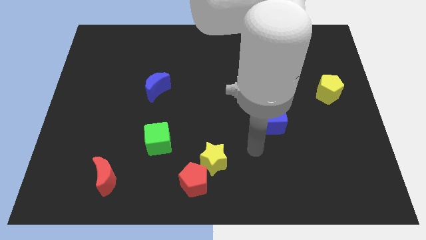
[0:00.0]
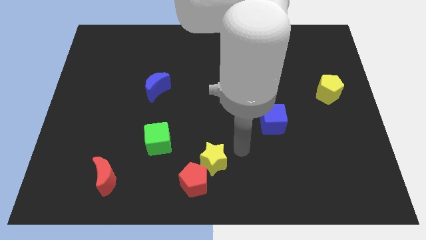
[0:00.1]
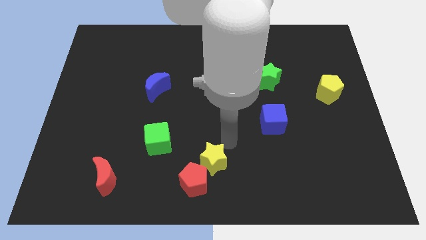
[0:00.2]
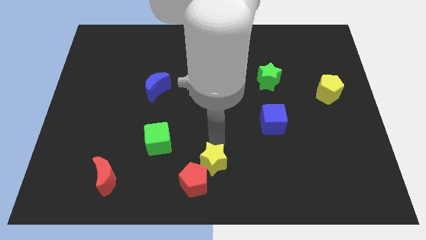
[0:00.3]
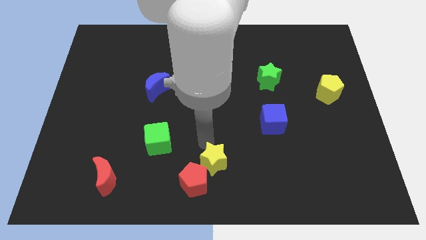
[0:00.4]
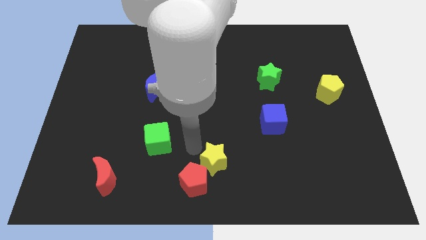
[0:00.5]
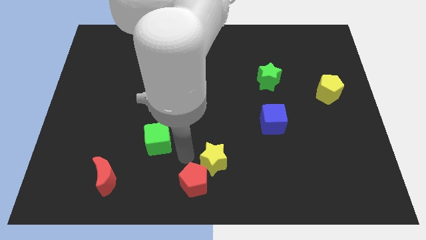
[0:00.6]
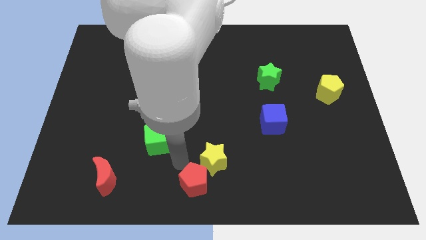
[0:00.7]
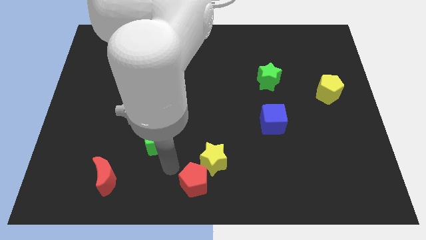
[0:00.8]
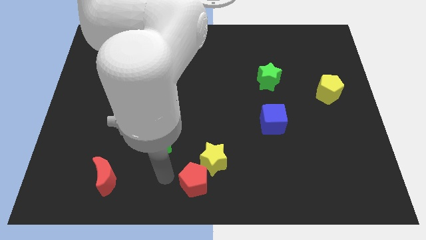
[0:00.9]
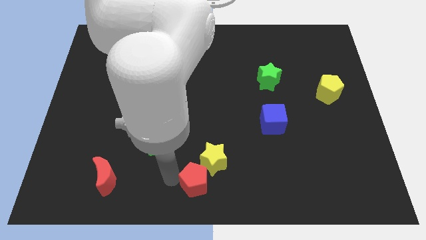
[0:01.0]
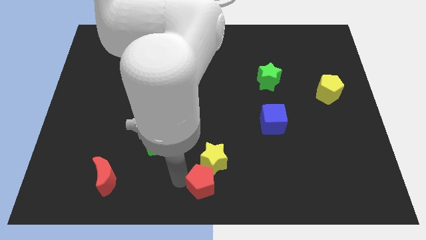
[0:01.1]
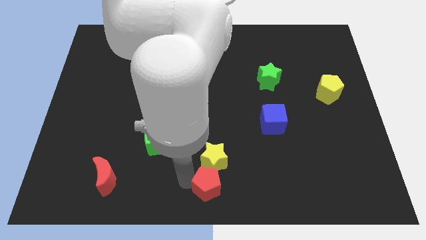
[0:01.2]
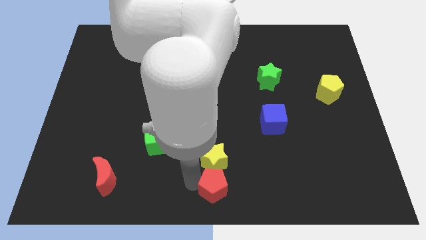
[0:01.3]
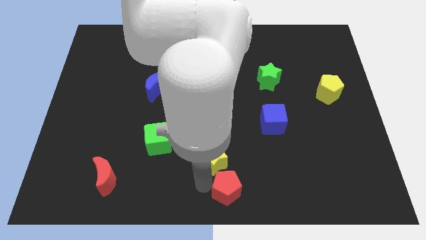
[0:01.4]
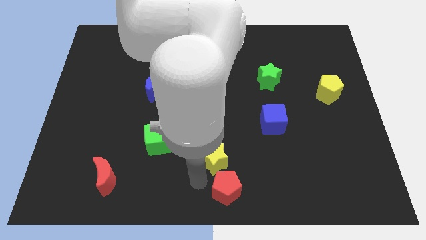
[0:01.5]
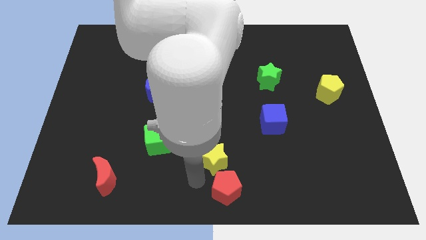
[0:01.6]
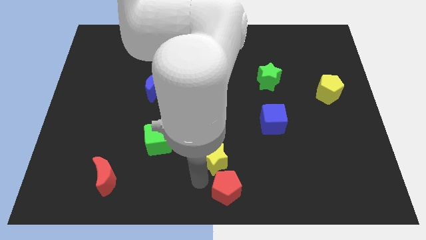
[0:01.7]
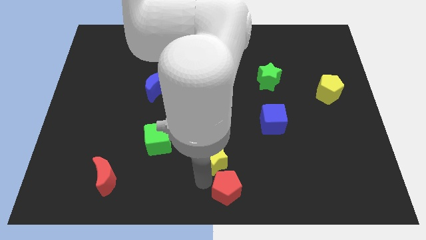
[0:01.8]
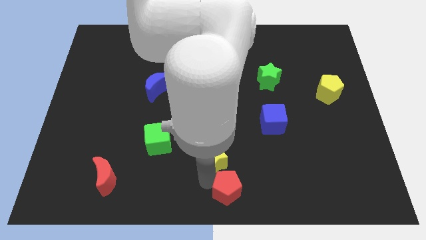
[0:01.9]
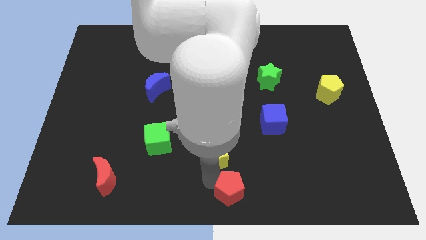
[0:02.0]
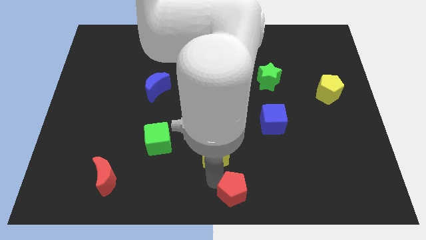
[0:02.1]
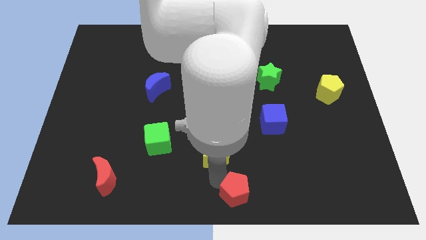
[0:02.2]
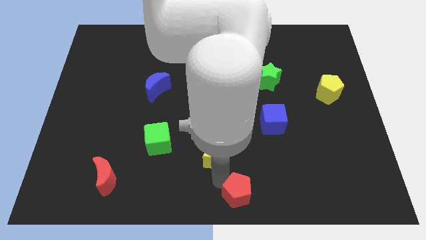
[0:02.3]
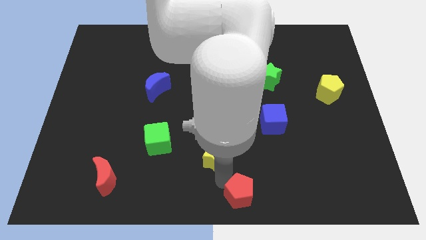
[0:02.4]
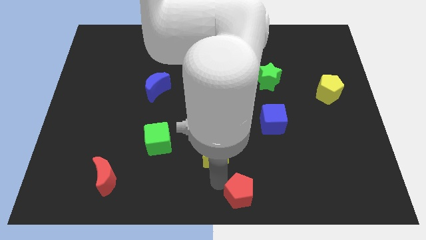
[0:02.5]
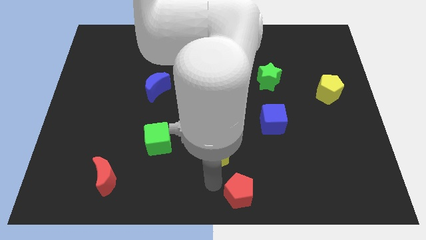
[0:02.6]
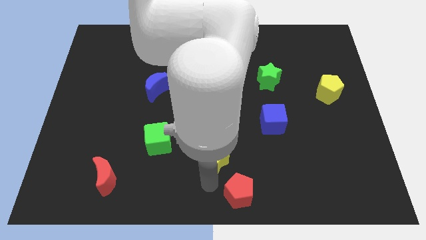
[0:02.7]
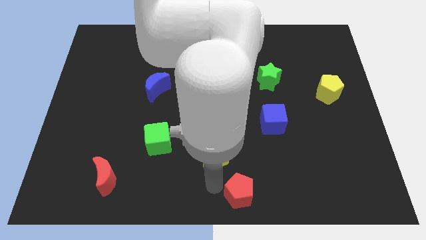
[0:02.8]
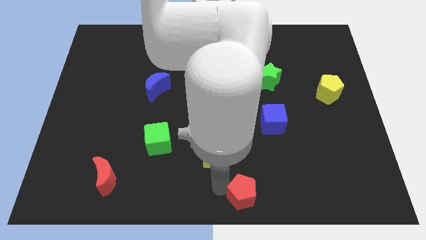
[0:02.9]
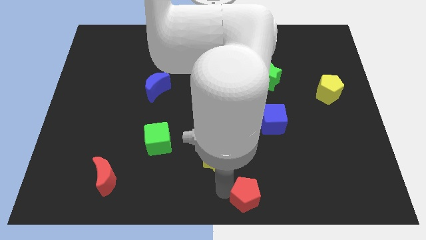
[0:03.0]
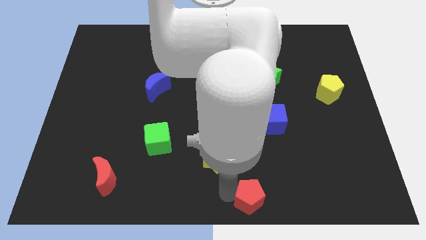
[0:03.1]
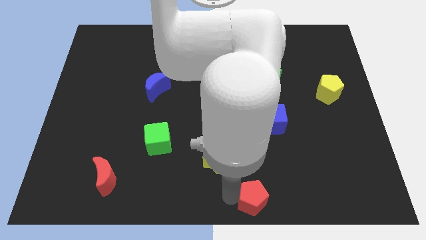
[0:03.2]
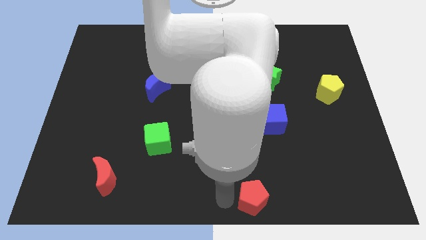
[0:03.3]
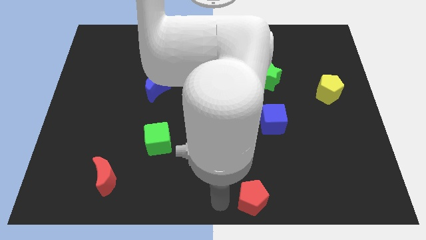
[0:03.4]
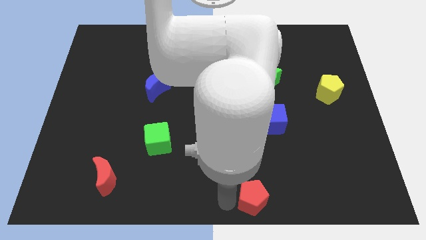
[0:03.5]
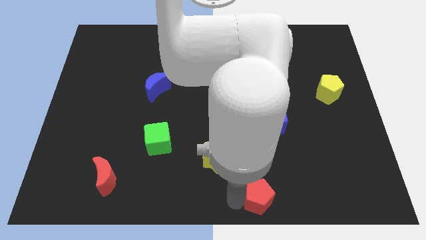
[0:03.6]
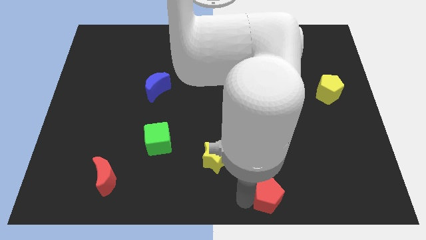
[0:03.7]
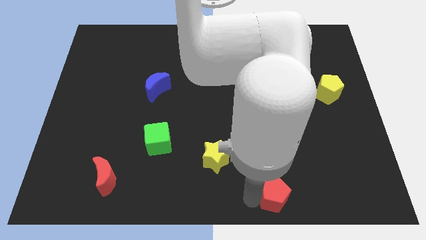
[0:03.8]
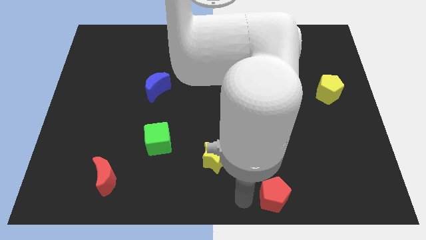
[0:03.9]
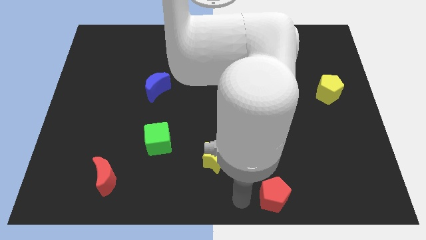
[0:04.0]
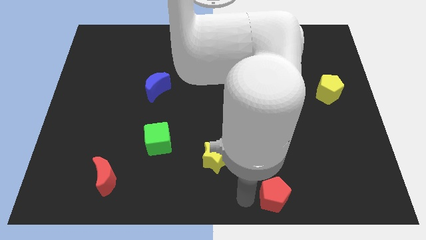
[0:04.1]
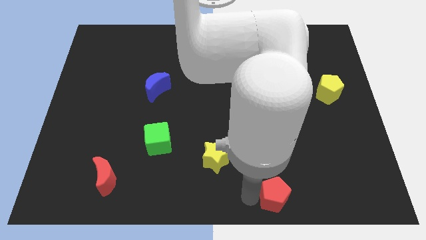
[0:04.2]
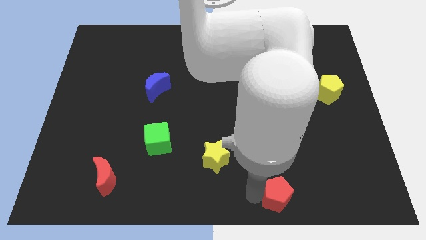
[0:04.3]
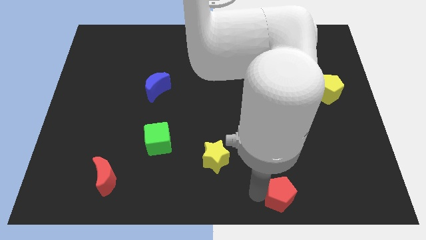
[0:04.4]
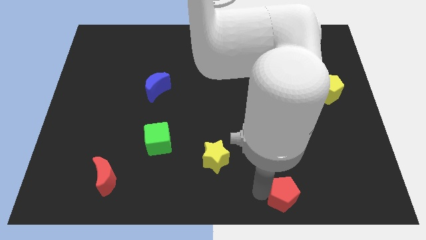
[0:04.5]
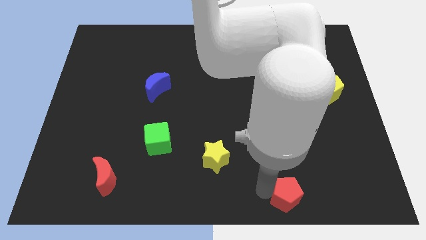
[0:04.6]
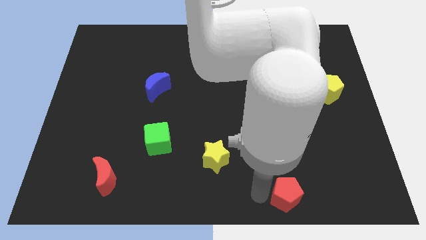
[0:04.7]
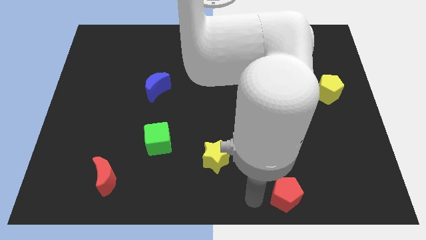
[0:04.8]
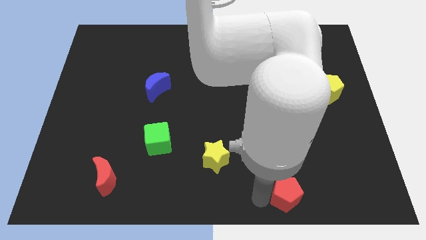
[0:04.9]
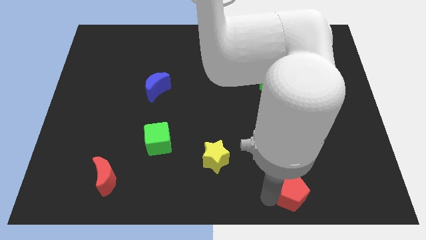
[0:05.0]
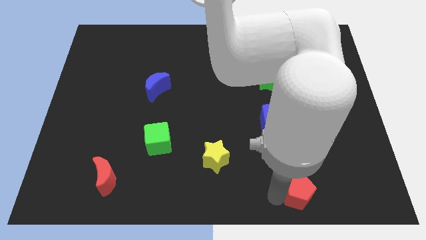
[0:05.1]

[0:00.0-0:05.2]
slide the red pentagon to the right

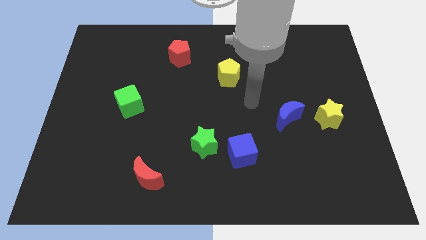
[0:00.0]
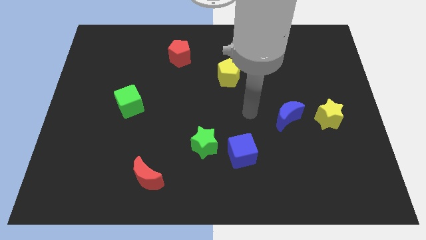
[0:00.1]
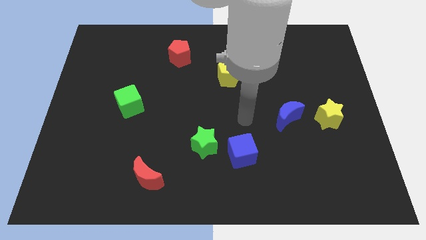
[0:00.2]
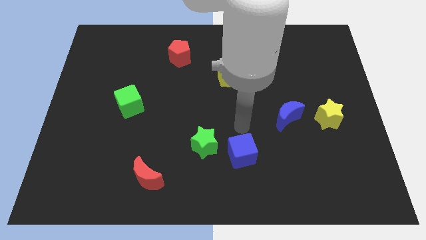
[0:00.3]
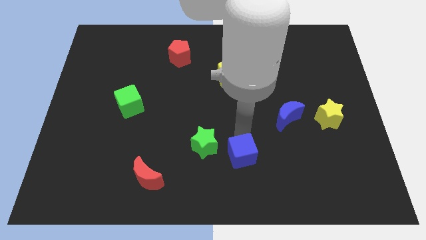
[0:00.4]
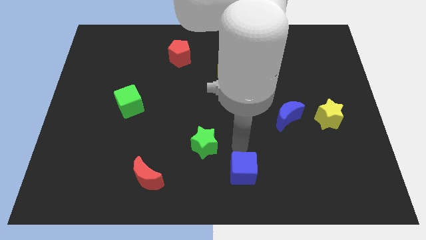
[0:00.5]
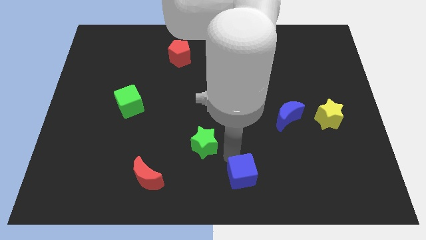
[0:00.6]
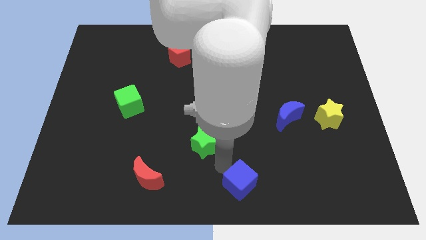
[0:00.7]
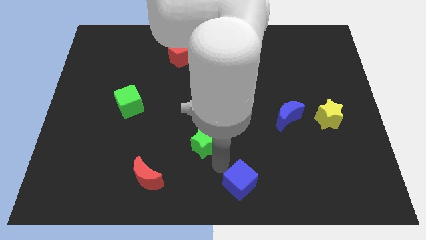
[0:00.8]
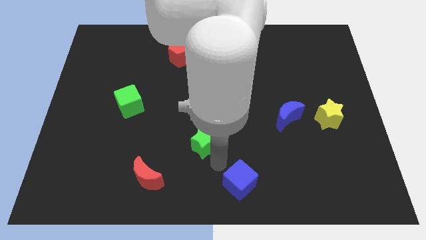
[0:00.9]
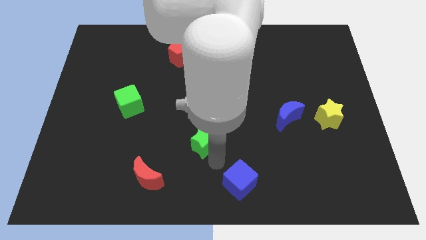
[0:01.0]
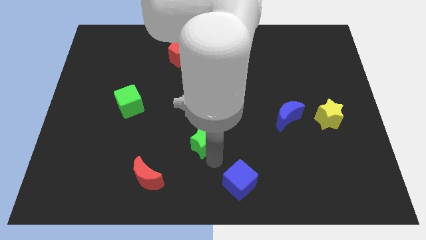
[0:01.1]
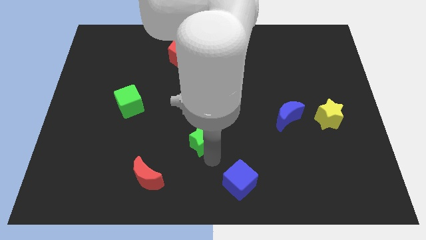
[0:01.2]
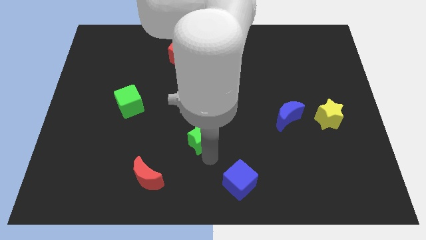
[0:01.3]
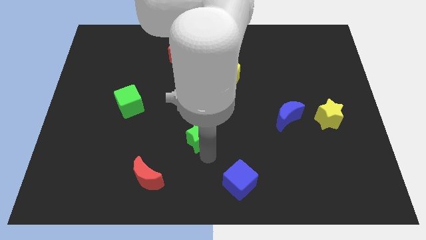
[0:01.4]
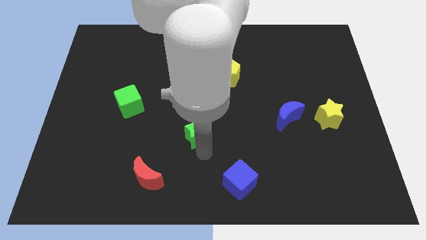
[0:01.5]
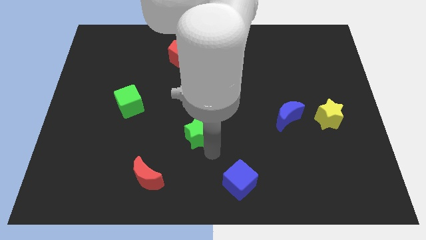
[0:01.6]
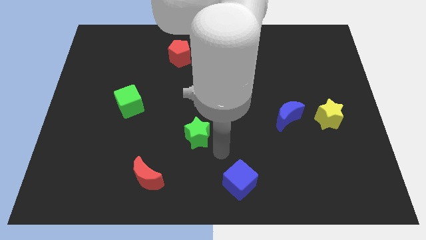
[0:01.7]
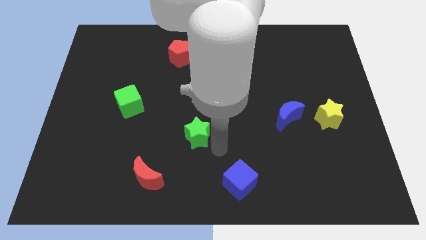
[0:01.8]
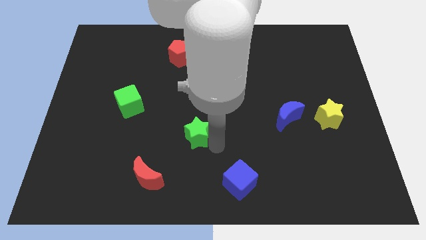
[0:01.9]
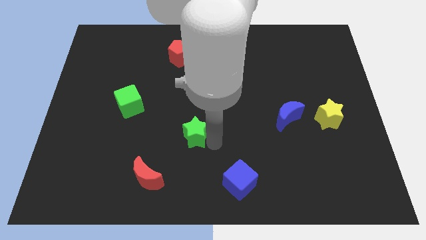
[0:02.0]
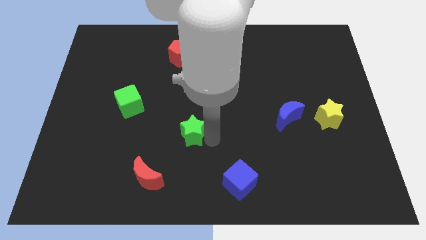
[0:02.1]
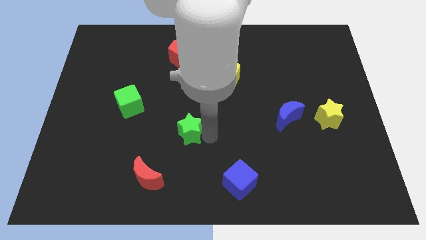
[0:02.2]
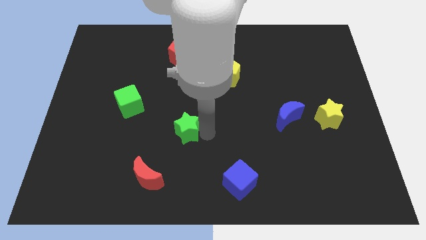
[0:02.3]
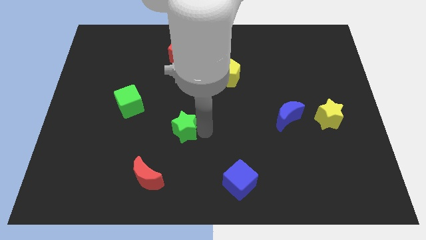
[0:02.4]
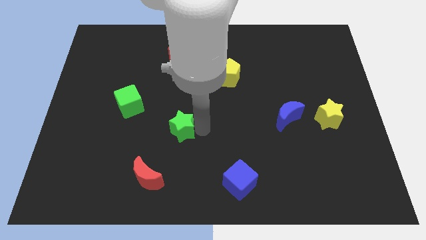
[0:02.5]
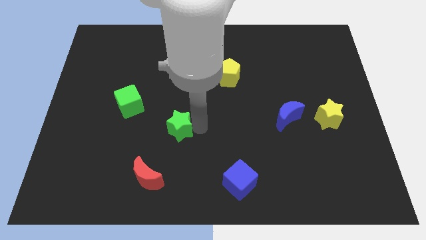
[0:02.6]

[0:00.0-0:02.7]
move the green star slightly diagonally up and left

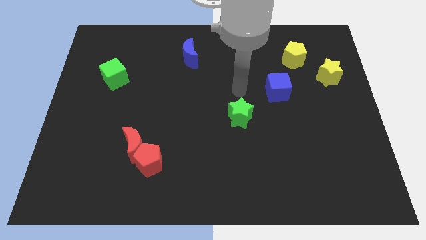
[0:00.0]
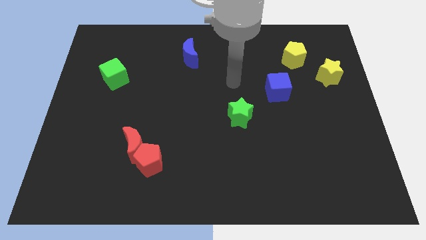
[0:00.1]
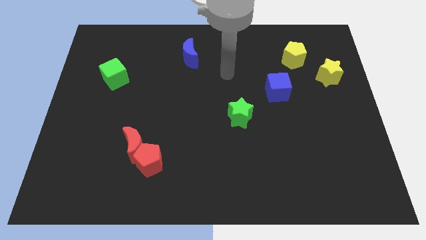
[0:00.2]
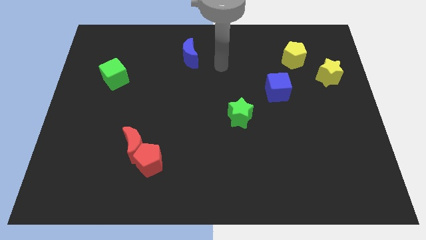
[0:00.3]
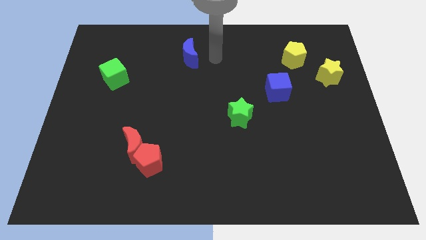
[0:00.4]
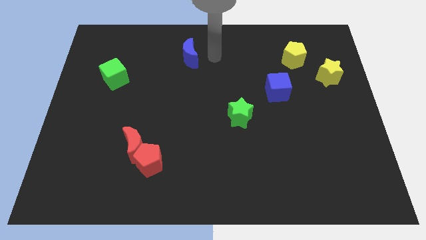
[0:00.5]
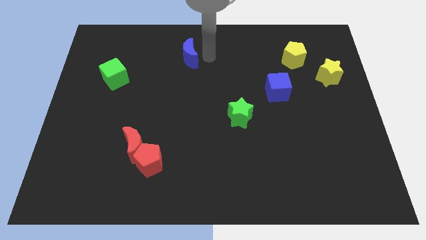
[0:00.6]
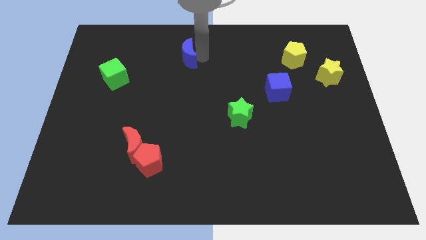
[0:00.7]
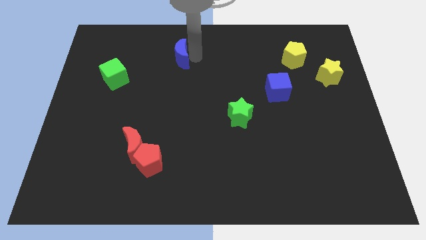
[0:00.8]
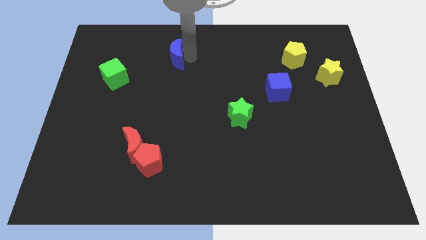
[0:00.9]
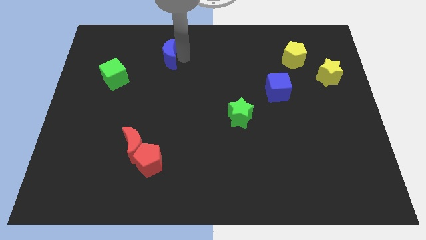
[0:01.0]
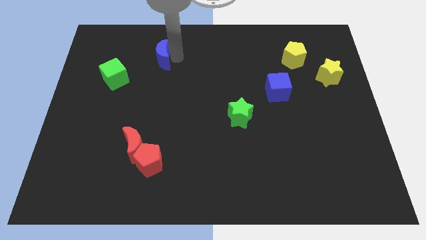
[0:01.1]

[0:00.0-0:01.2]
slightly push the blue moon left
